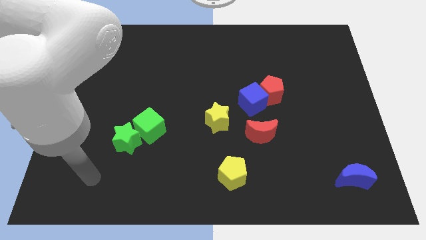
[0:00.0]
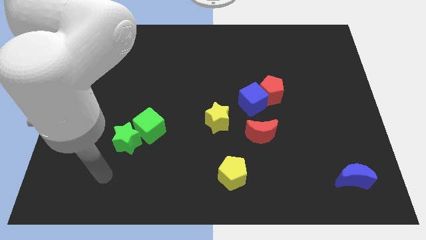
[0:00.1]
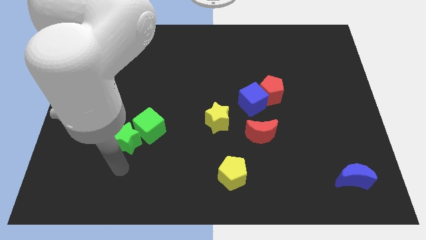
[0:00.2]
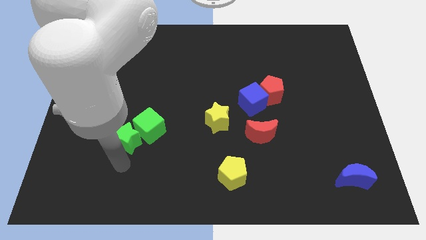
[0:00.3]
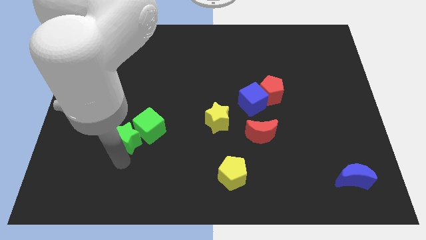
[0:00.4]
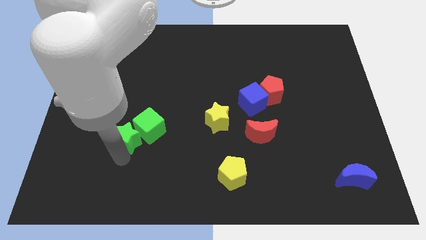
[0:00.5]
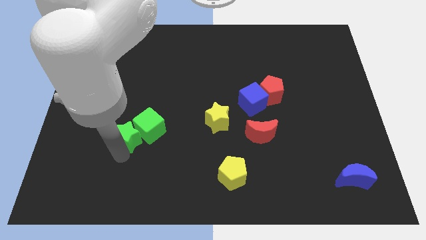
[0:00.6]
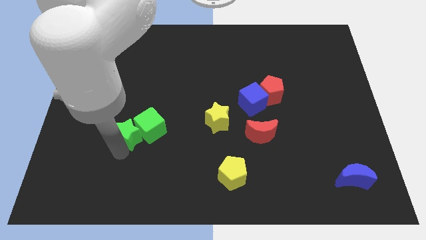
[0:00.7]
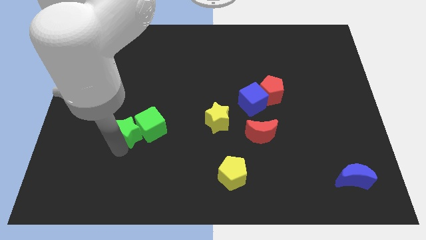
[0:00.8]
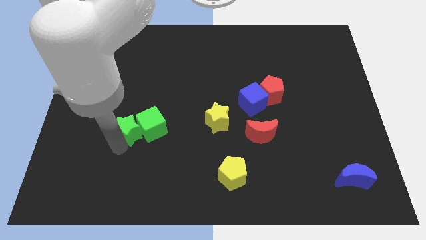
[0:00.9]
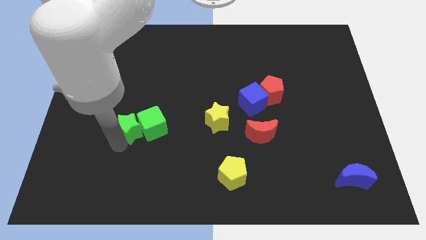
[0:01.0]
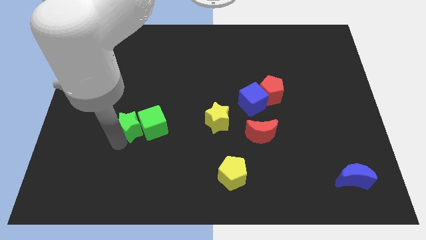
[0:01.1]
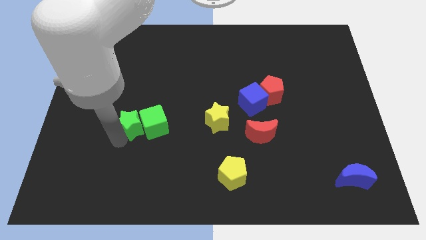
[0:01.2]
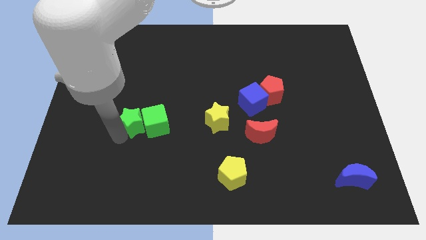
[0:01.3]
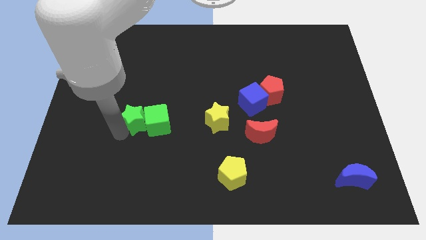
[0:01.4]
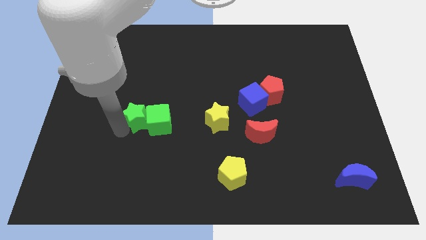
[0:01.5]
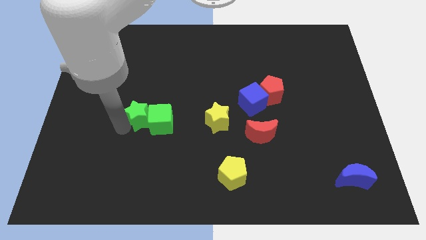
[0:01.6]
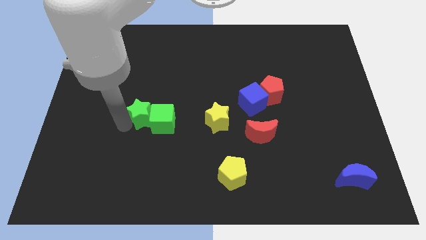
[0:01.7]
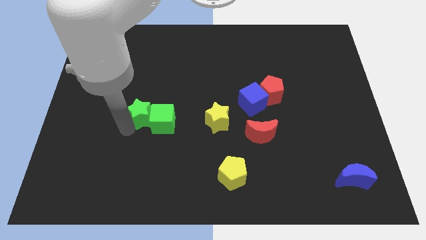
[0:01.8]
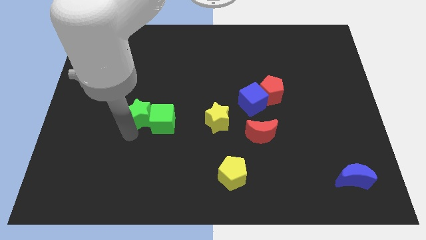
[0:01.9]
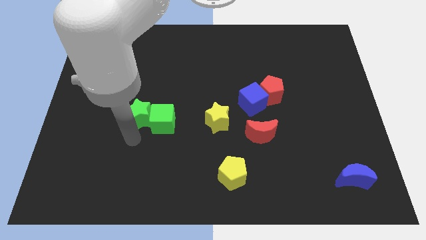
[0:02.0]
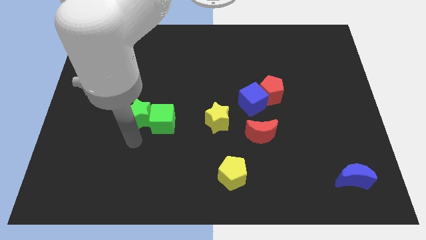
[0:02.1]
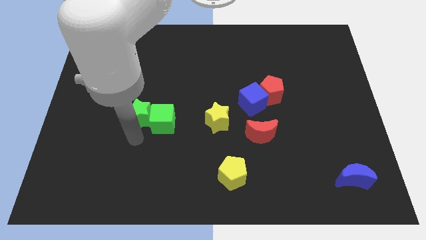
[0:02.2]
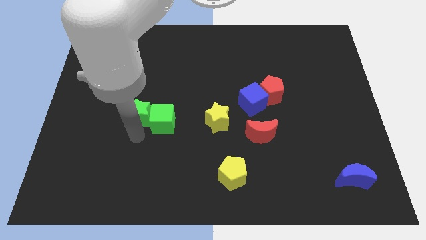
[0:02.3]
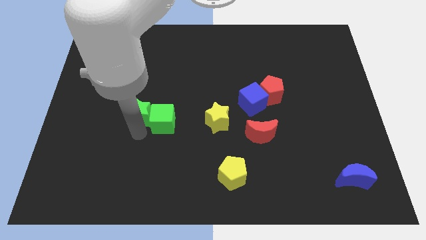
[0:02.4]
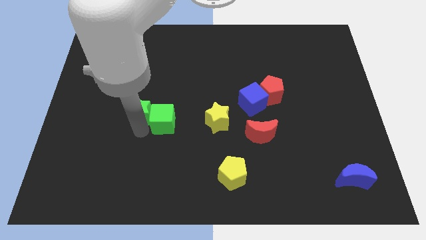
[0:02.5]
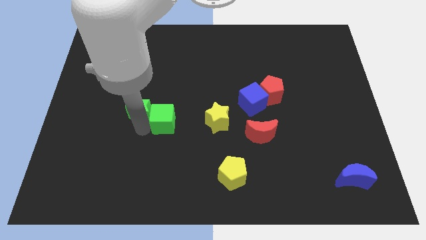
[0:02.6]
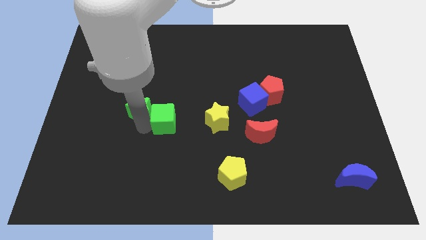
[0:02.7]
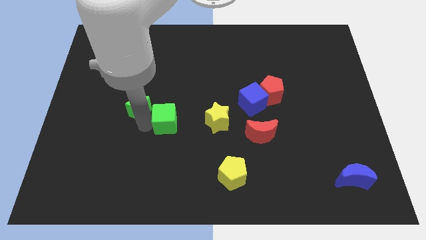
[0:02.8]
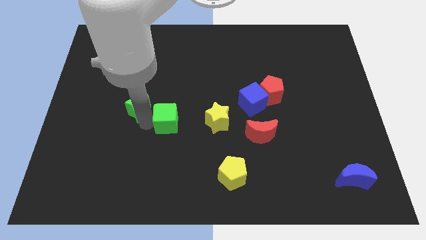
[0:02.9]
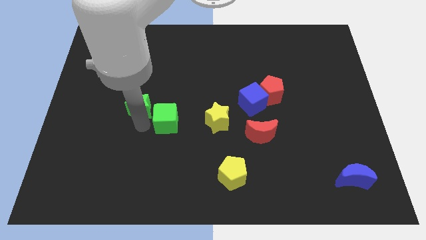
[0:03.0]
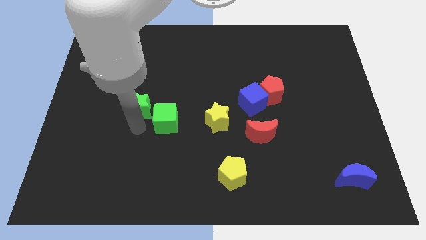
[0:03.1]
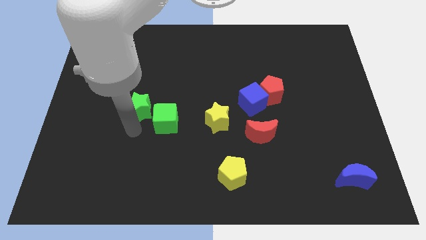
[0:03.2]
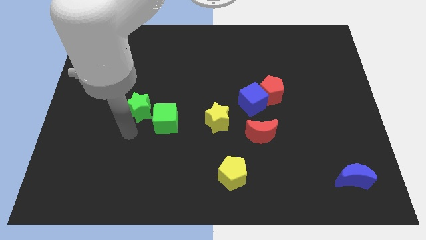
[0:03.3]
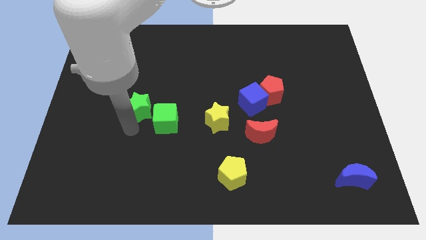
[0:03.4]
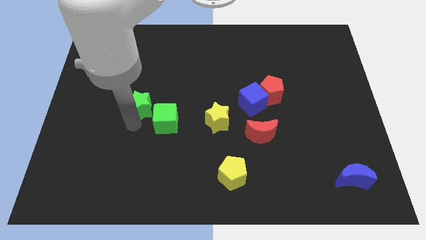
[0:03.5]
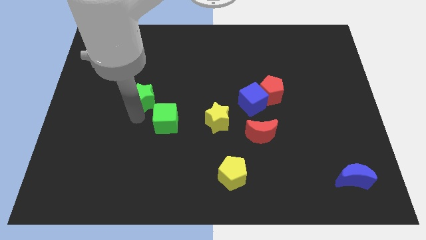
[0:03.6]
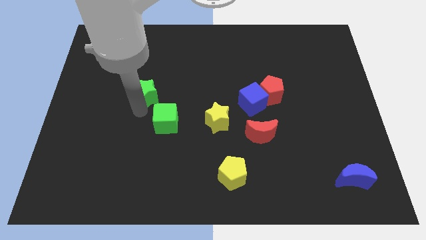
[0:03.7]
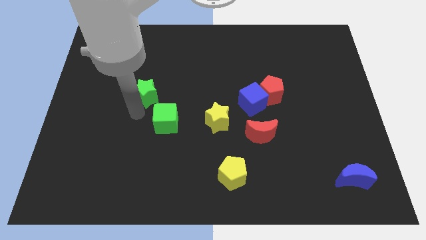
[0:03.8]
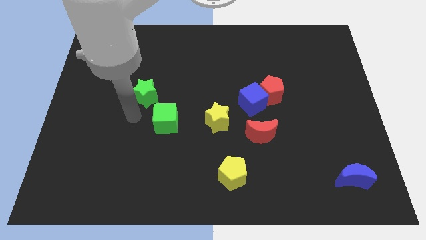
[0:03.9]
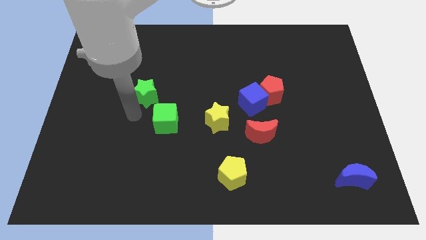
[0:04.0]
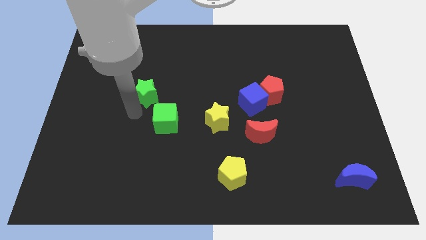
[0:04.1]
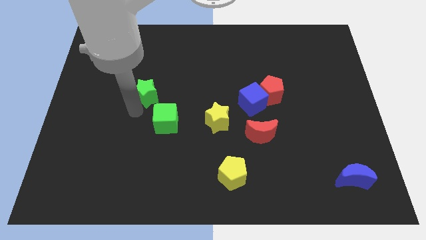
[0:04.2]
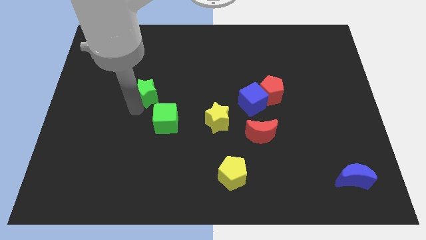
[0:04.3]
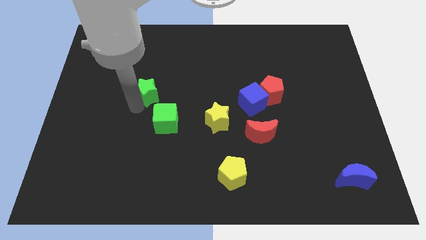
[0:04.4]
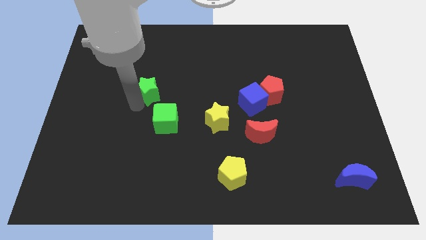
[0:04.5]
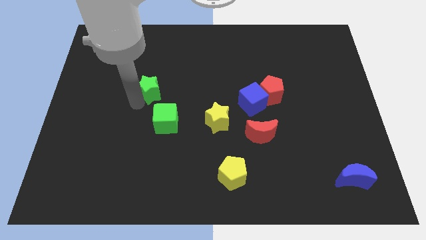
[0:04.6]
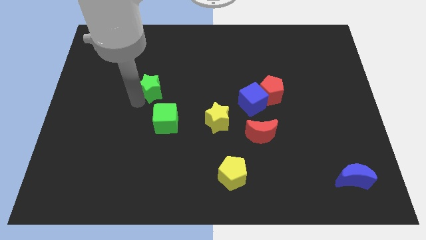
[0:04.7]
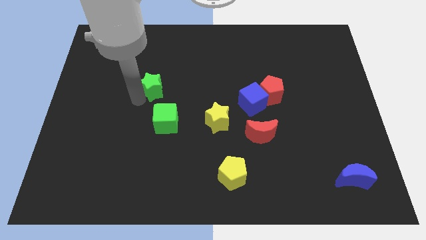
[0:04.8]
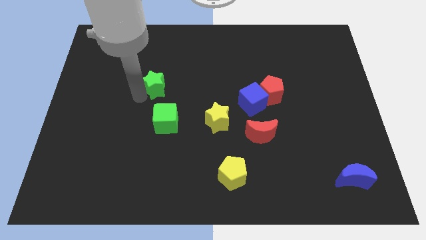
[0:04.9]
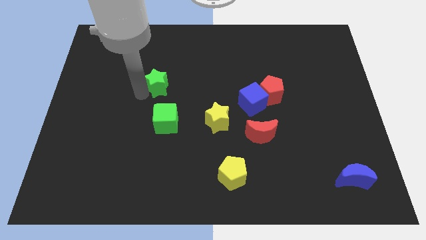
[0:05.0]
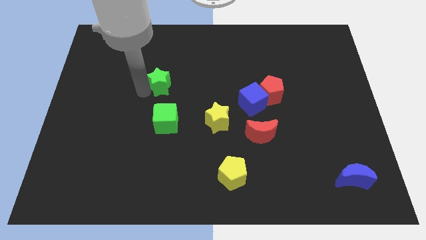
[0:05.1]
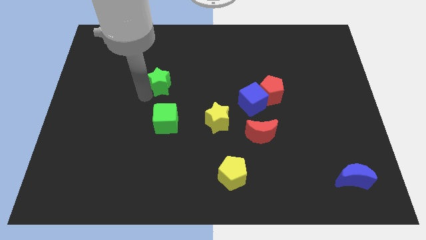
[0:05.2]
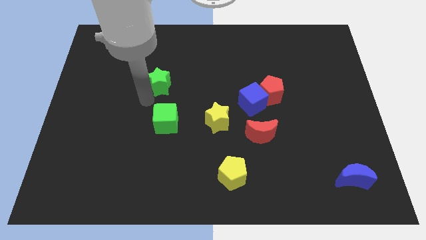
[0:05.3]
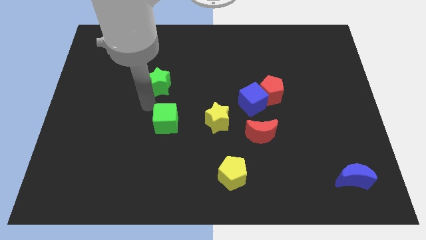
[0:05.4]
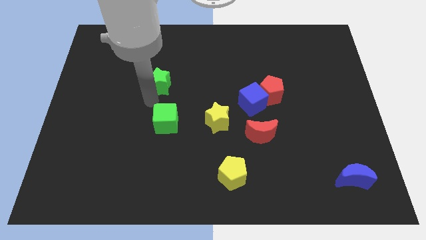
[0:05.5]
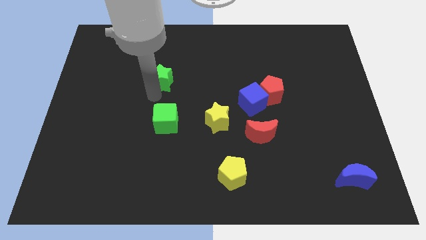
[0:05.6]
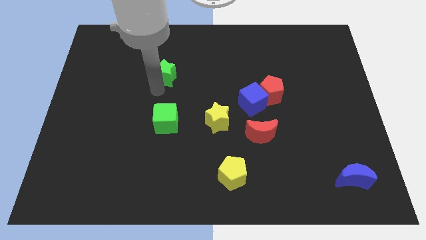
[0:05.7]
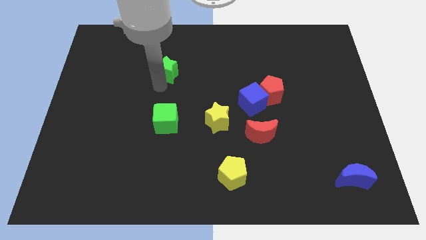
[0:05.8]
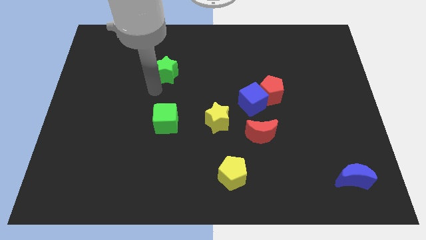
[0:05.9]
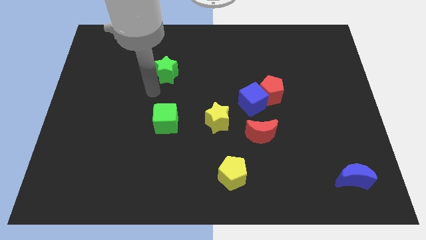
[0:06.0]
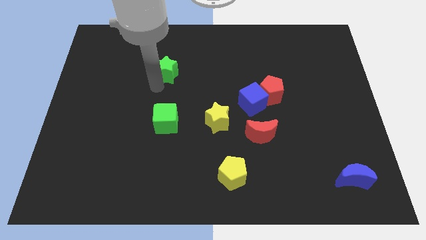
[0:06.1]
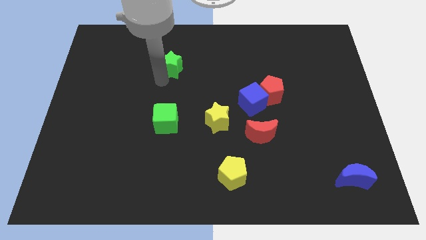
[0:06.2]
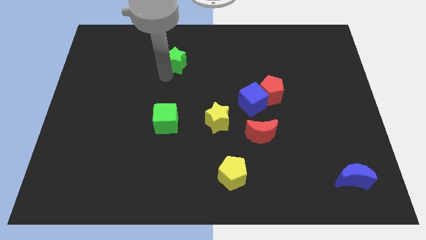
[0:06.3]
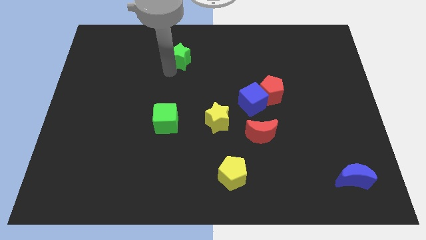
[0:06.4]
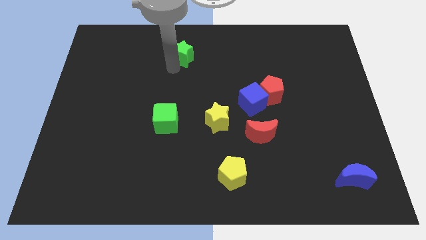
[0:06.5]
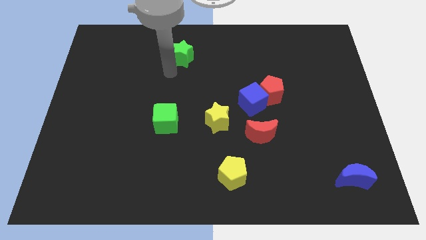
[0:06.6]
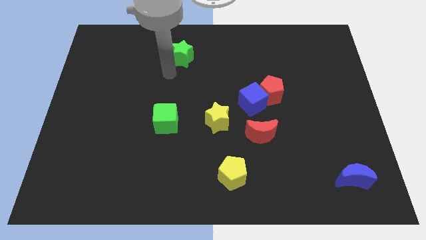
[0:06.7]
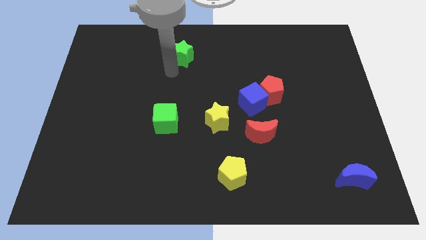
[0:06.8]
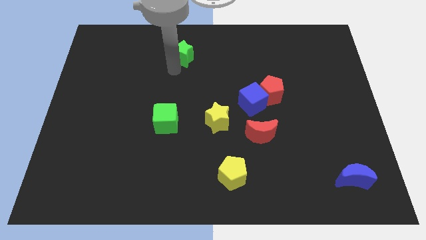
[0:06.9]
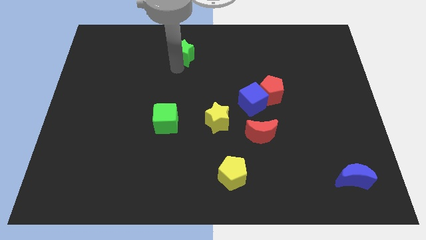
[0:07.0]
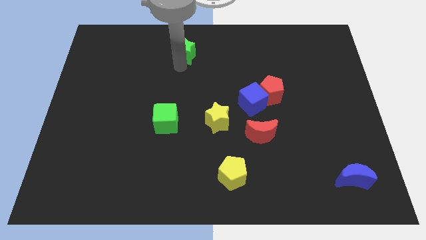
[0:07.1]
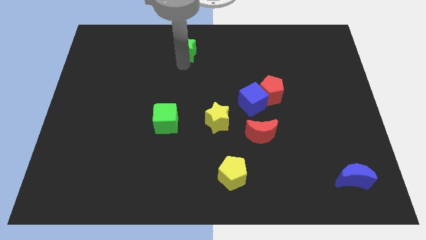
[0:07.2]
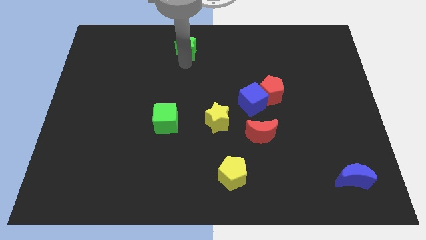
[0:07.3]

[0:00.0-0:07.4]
put the green star to the top
